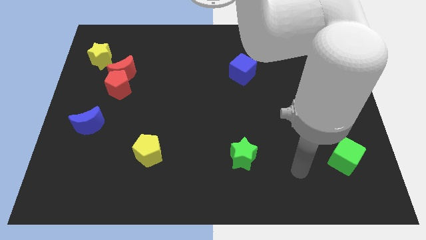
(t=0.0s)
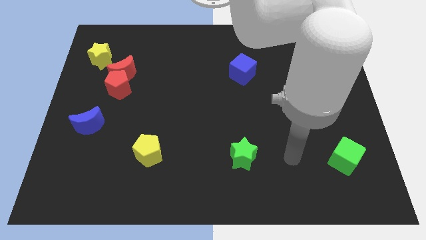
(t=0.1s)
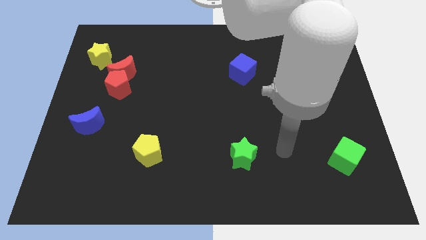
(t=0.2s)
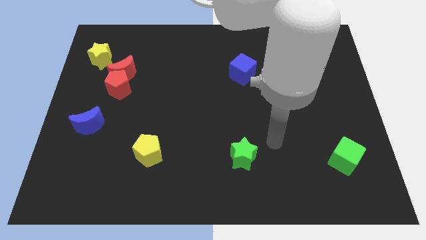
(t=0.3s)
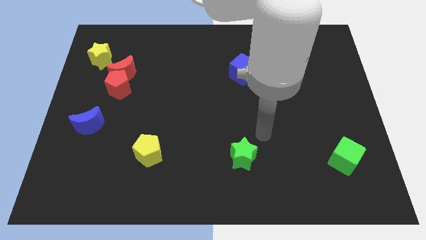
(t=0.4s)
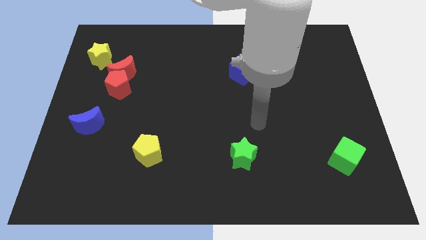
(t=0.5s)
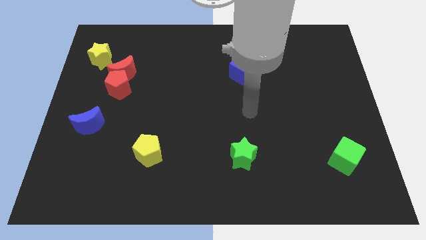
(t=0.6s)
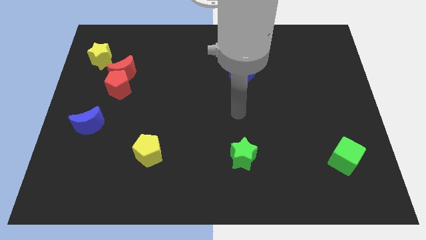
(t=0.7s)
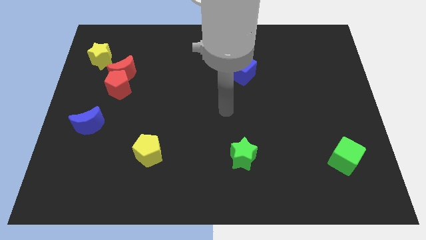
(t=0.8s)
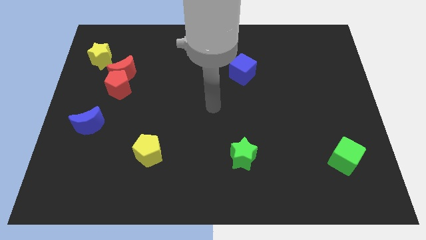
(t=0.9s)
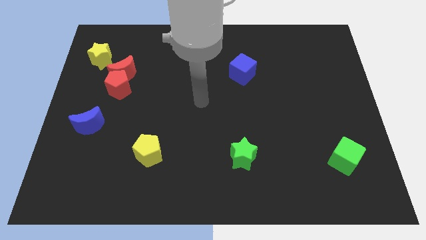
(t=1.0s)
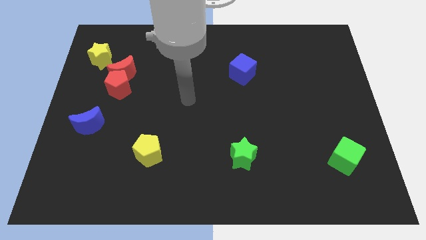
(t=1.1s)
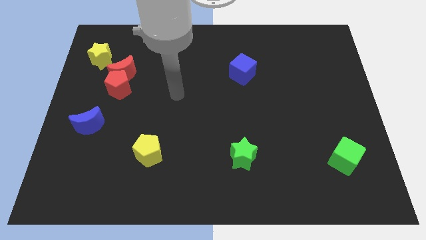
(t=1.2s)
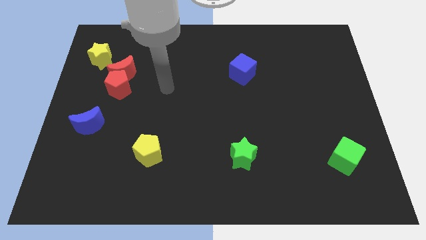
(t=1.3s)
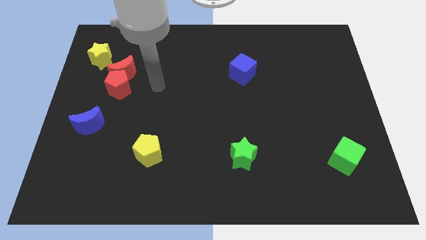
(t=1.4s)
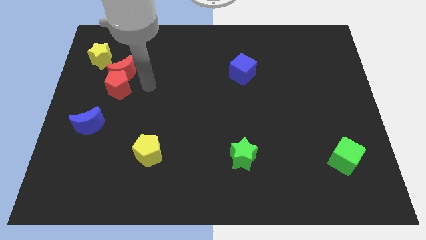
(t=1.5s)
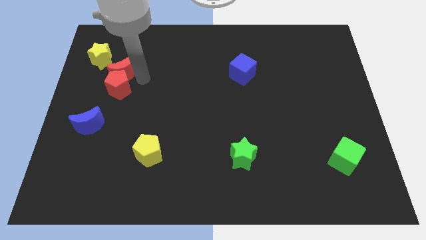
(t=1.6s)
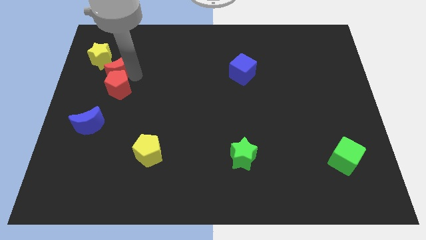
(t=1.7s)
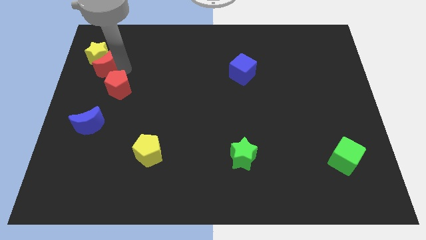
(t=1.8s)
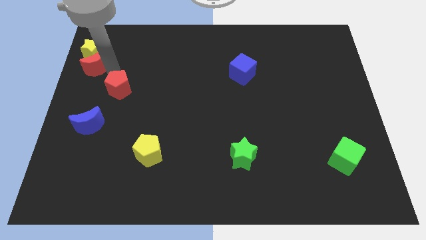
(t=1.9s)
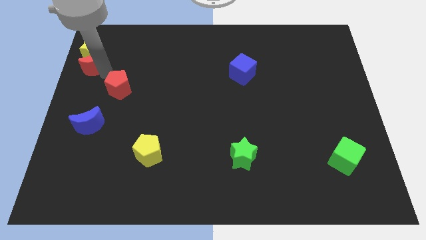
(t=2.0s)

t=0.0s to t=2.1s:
pull the red pentagon apart from the red moon

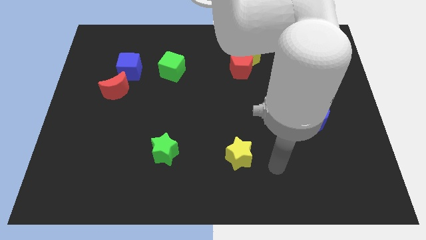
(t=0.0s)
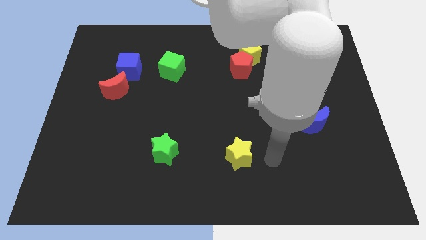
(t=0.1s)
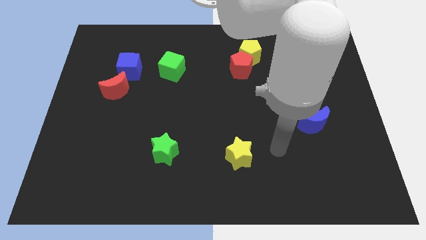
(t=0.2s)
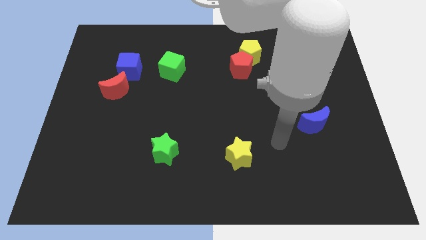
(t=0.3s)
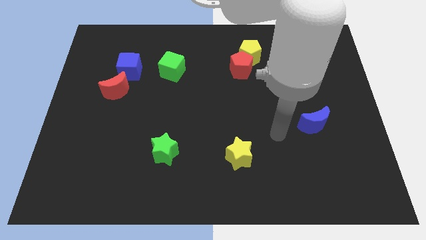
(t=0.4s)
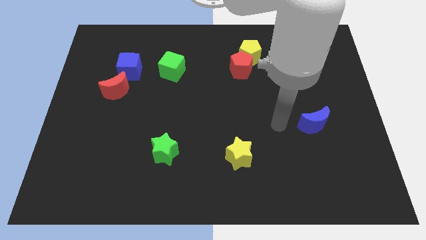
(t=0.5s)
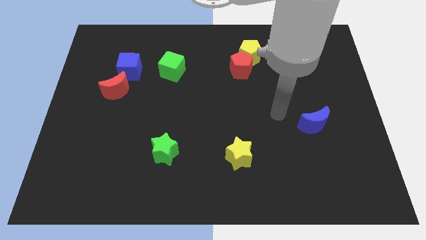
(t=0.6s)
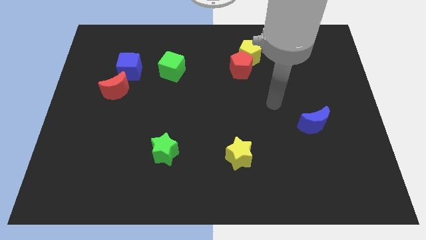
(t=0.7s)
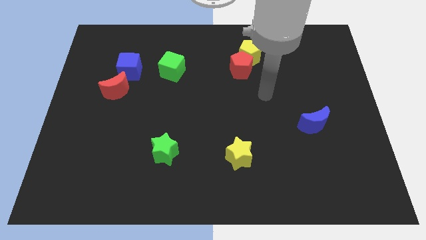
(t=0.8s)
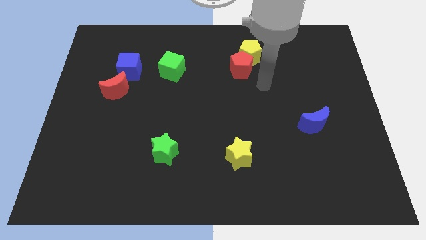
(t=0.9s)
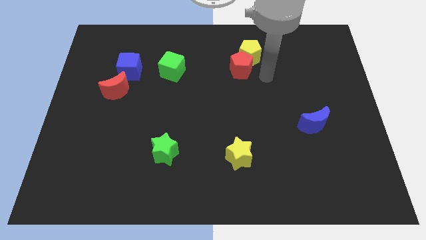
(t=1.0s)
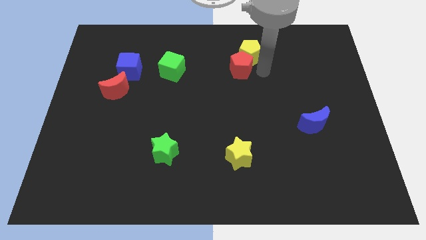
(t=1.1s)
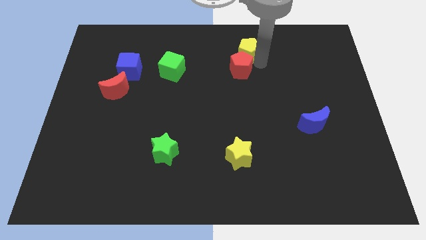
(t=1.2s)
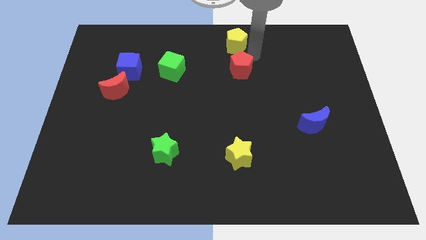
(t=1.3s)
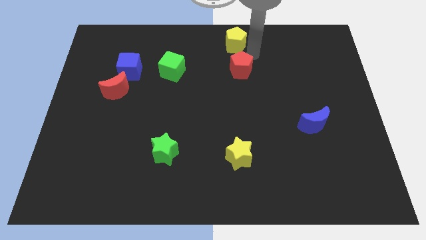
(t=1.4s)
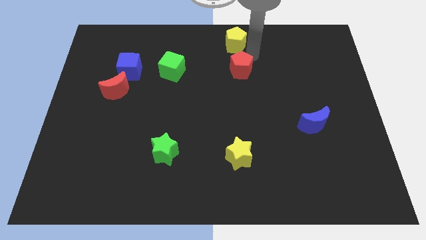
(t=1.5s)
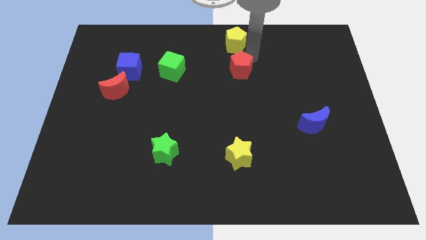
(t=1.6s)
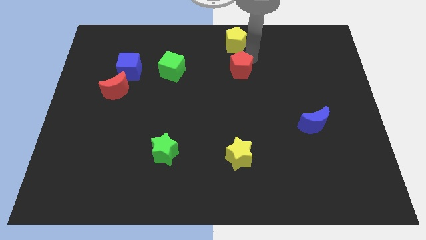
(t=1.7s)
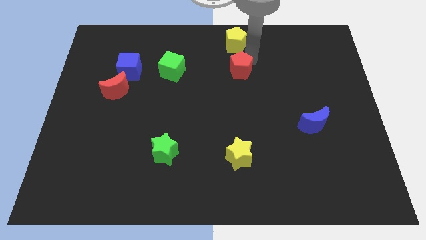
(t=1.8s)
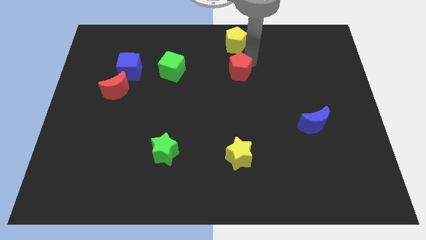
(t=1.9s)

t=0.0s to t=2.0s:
move the red pentagon away from the yellow pentagon

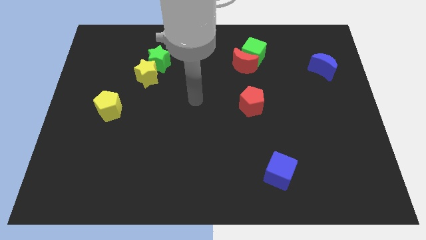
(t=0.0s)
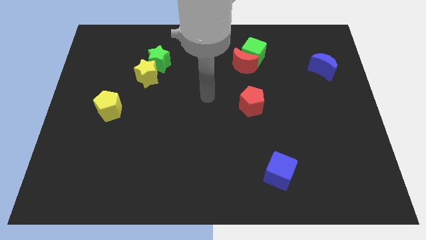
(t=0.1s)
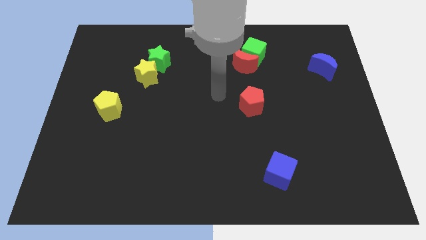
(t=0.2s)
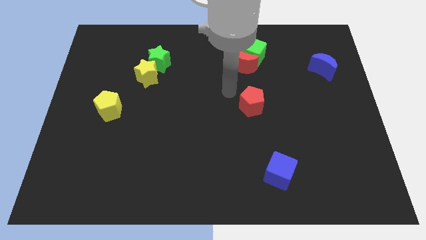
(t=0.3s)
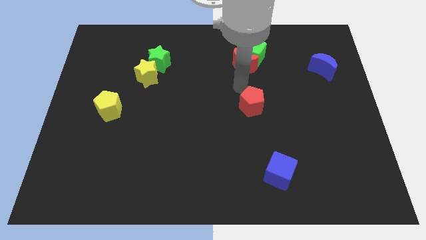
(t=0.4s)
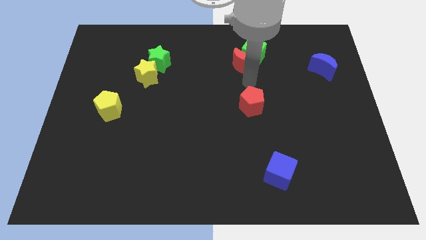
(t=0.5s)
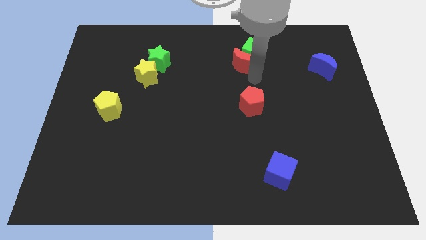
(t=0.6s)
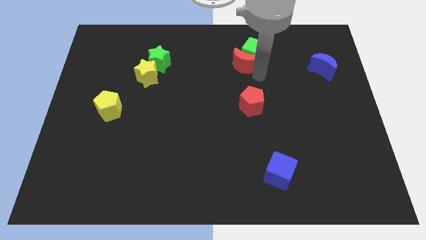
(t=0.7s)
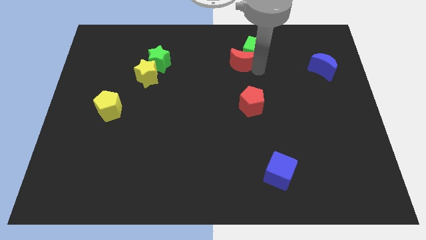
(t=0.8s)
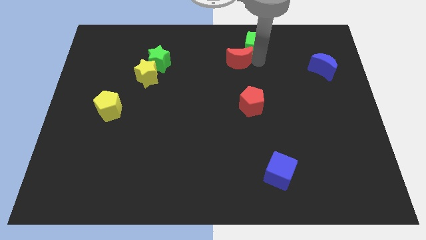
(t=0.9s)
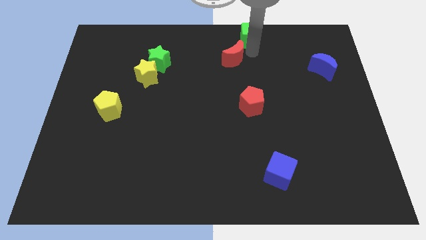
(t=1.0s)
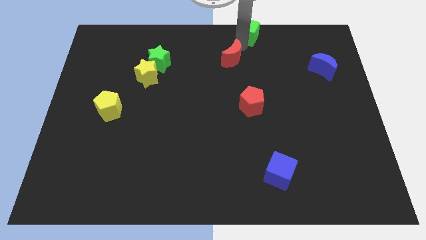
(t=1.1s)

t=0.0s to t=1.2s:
separate the red moon from the green cube

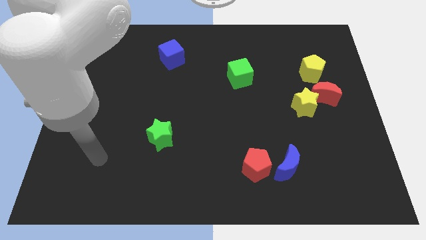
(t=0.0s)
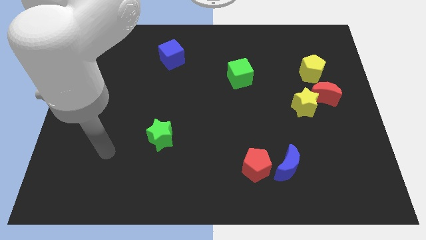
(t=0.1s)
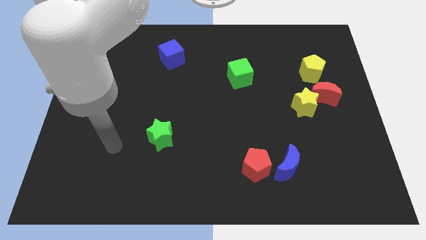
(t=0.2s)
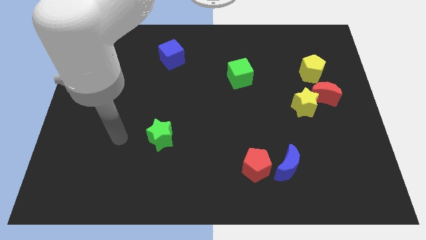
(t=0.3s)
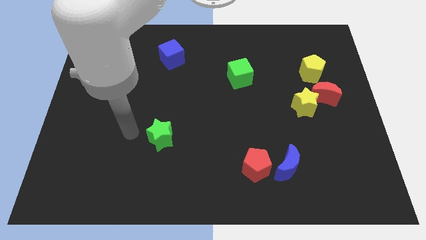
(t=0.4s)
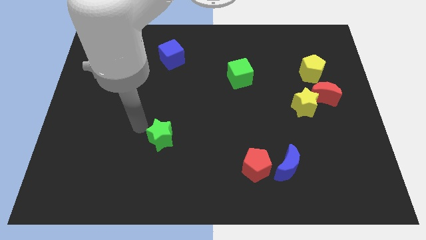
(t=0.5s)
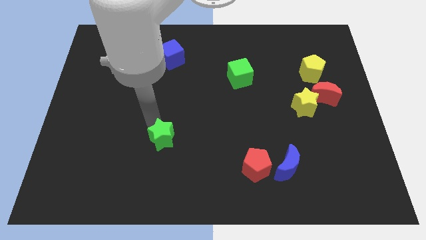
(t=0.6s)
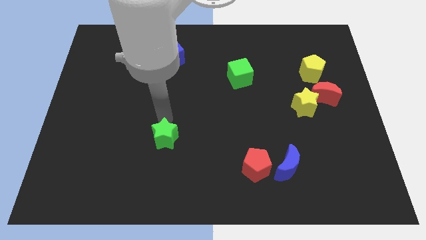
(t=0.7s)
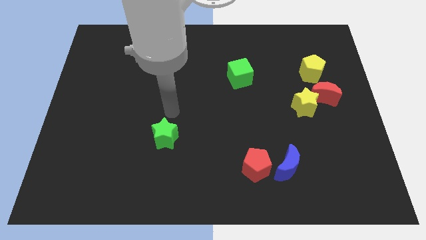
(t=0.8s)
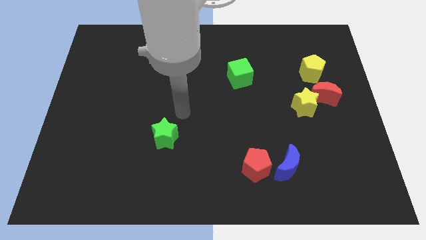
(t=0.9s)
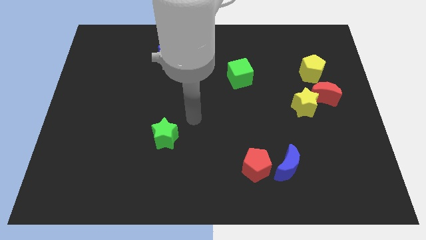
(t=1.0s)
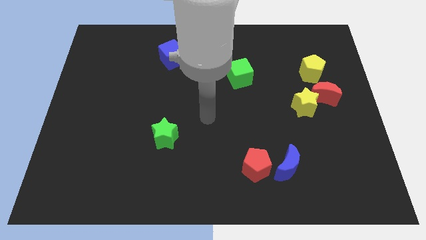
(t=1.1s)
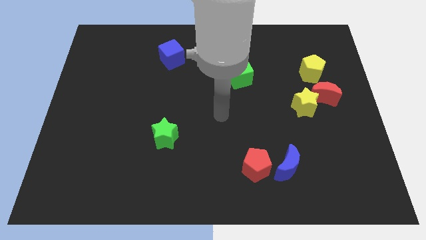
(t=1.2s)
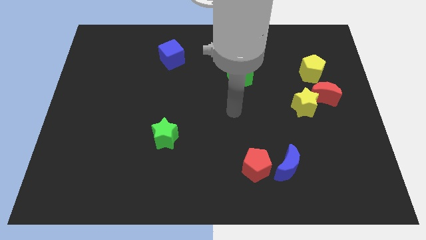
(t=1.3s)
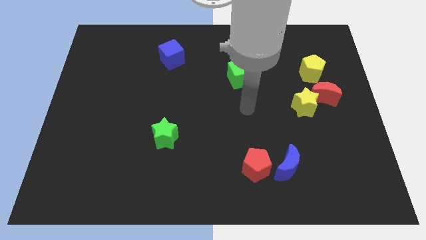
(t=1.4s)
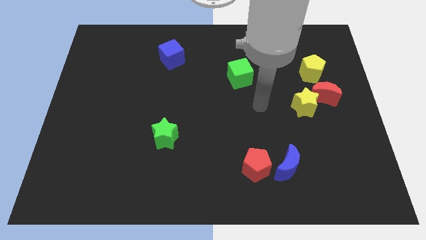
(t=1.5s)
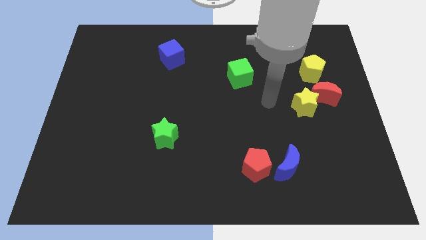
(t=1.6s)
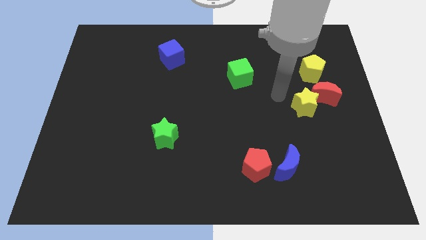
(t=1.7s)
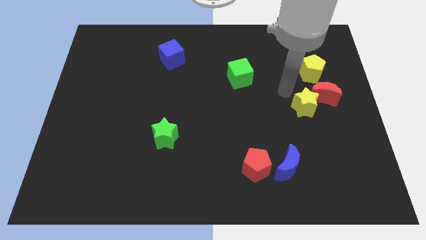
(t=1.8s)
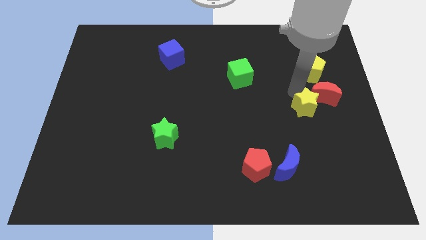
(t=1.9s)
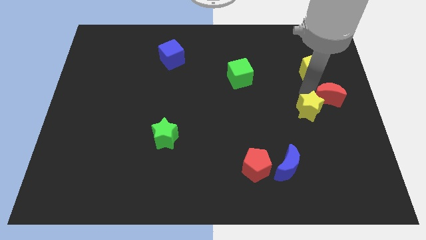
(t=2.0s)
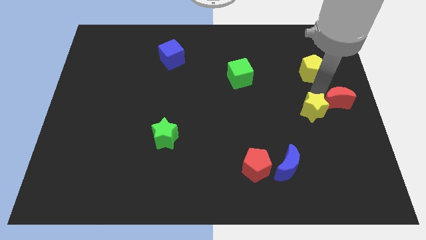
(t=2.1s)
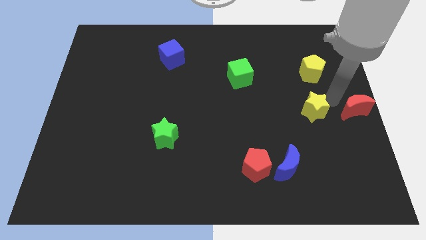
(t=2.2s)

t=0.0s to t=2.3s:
pull the yellow star apart from the red moon

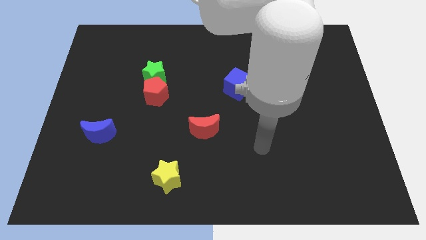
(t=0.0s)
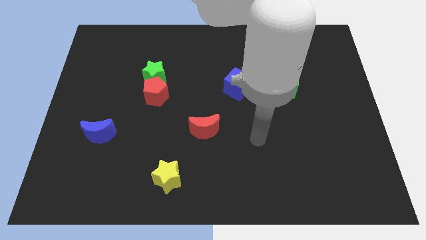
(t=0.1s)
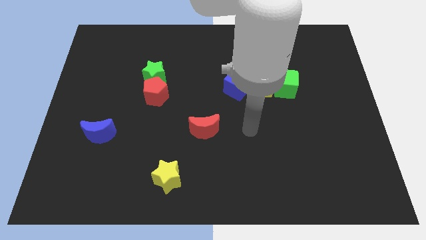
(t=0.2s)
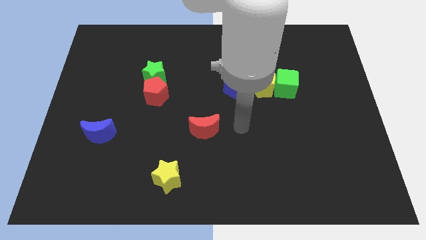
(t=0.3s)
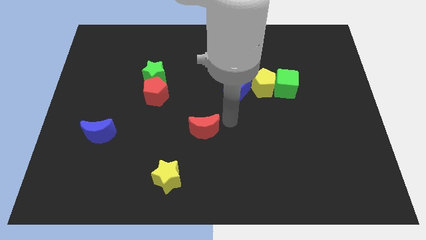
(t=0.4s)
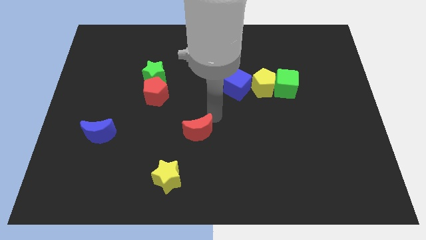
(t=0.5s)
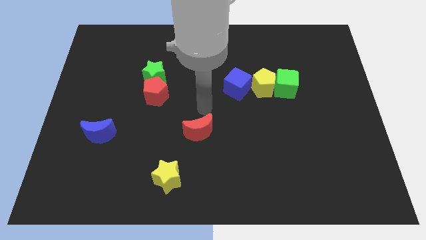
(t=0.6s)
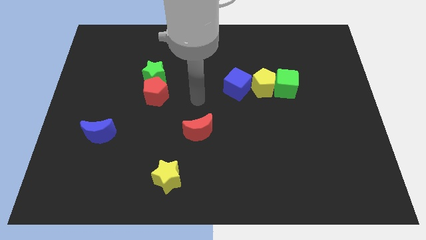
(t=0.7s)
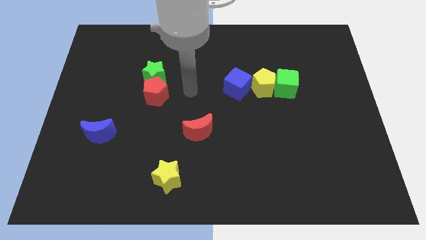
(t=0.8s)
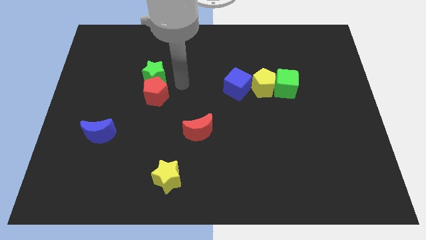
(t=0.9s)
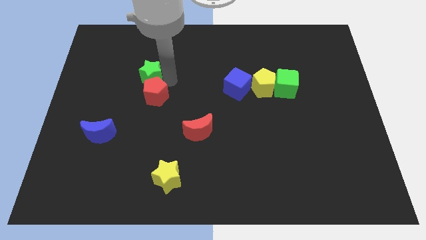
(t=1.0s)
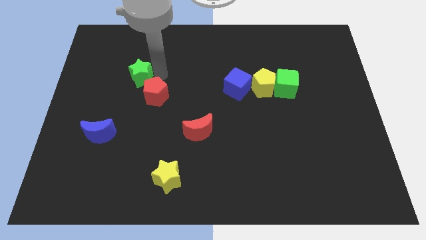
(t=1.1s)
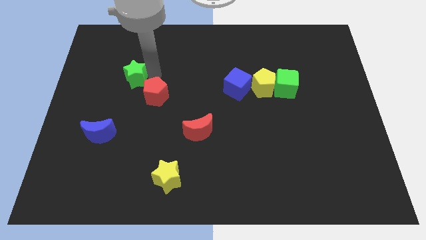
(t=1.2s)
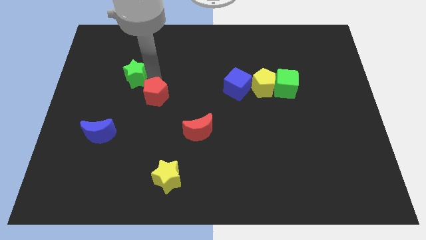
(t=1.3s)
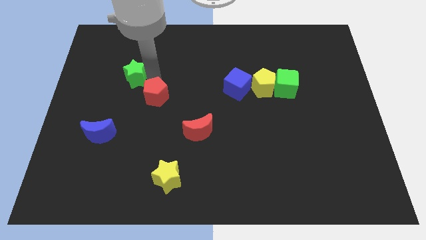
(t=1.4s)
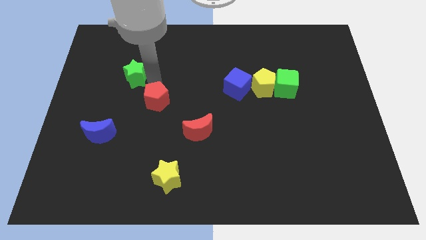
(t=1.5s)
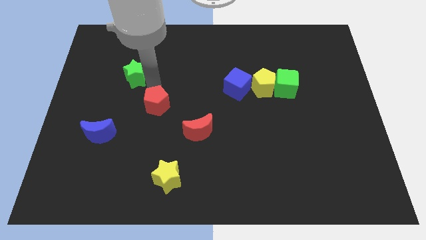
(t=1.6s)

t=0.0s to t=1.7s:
separate the red pentagon from the green star

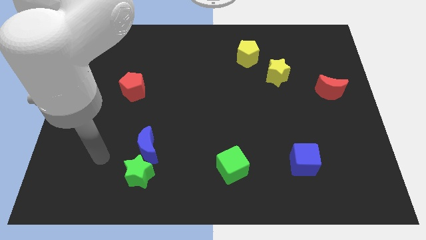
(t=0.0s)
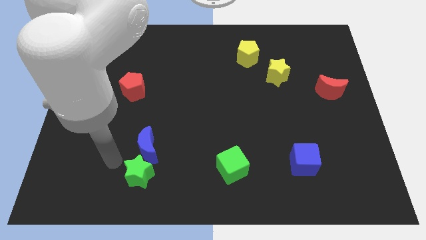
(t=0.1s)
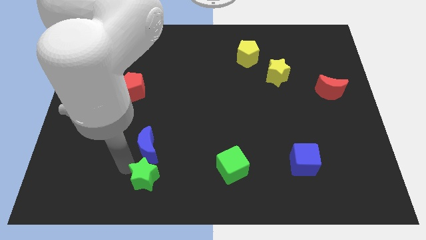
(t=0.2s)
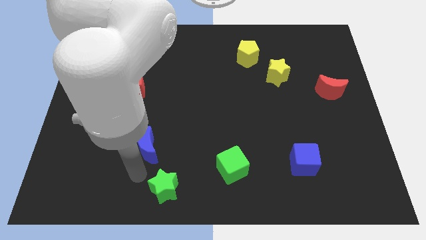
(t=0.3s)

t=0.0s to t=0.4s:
pull the blue moon apart from the green star
